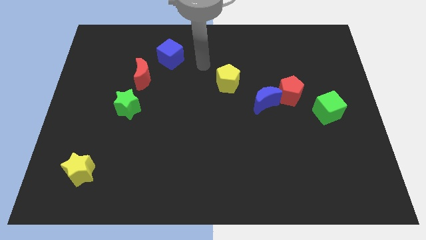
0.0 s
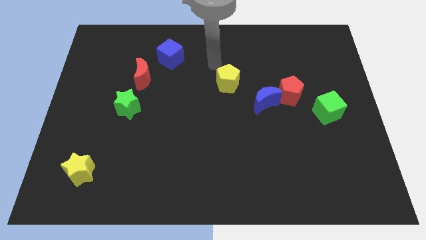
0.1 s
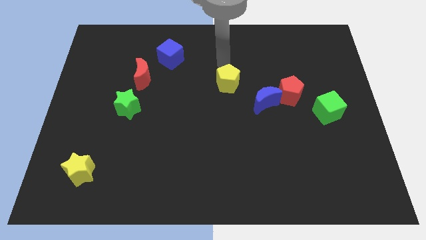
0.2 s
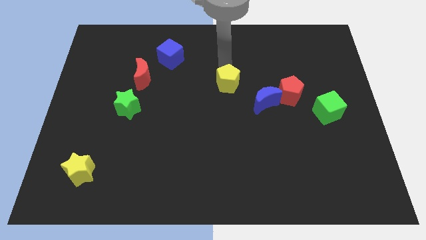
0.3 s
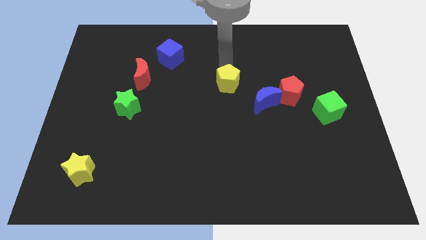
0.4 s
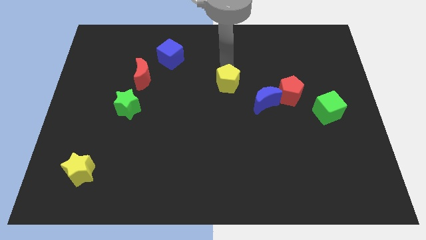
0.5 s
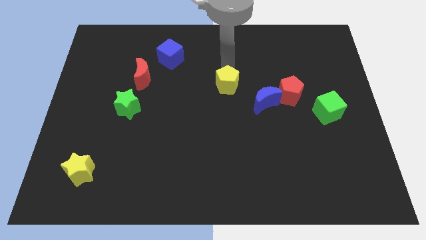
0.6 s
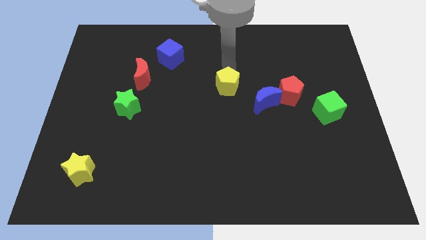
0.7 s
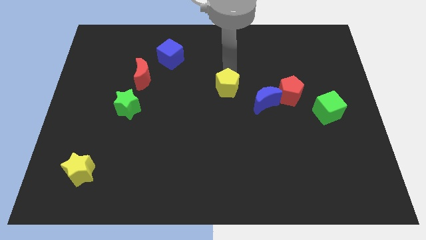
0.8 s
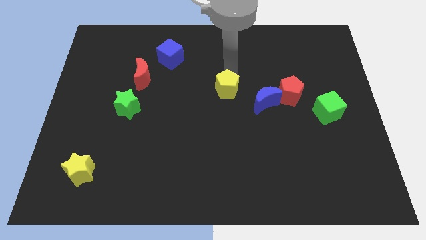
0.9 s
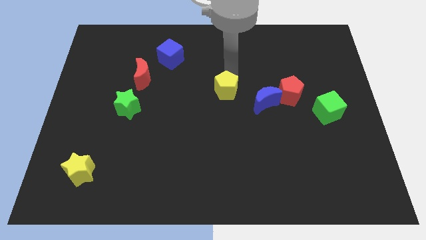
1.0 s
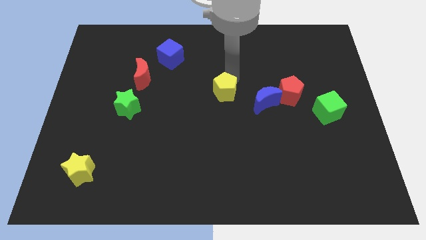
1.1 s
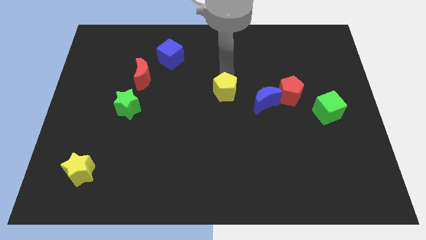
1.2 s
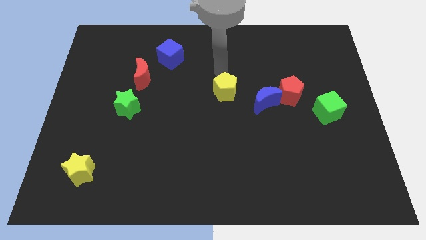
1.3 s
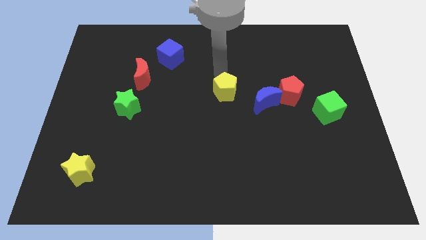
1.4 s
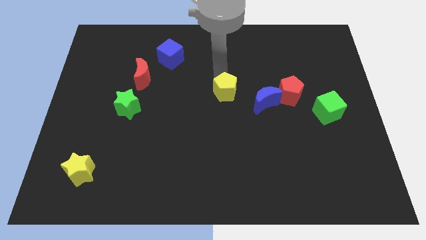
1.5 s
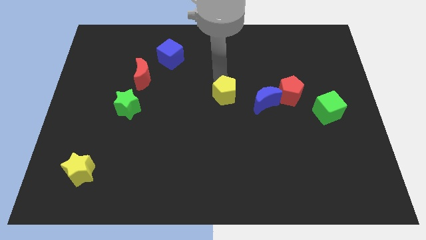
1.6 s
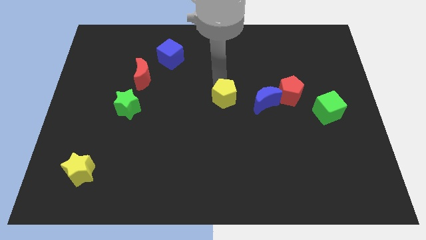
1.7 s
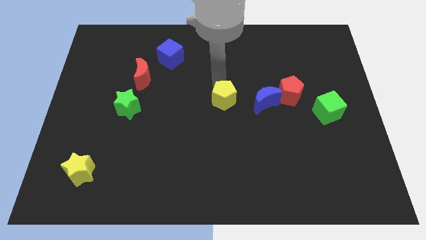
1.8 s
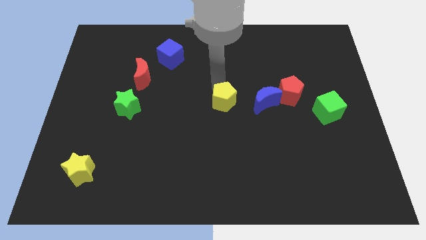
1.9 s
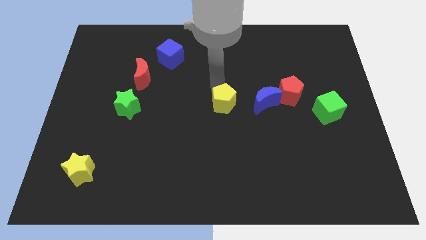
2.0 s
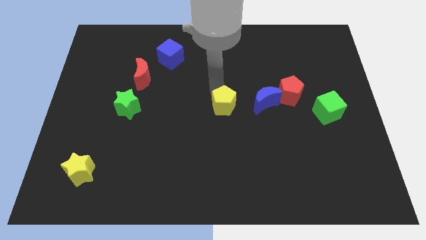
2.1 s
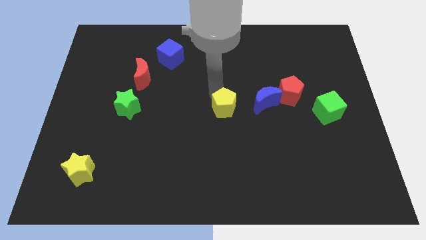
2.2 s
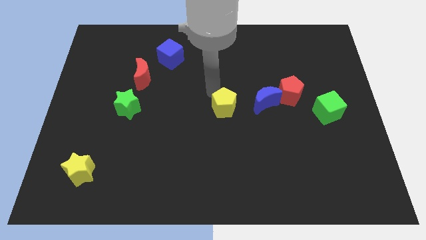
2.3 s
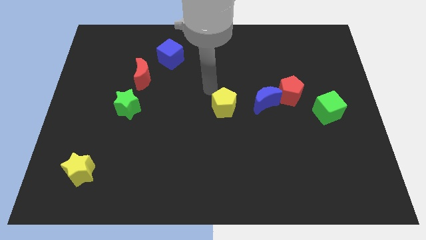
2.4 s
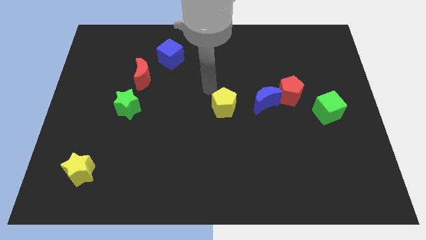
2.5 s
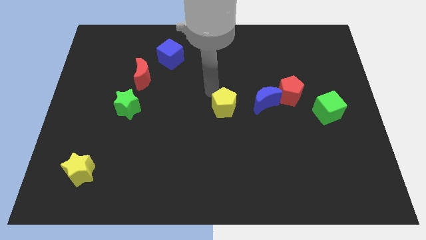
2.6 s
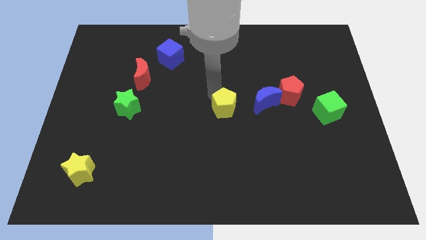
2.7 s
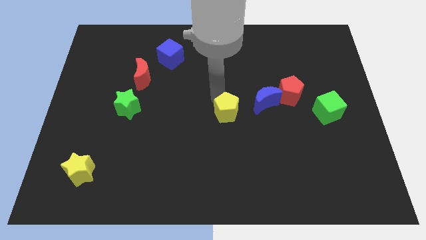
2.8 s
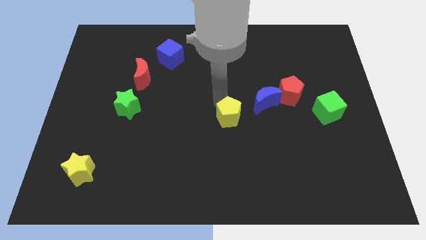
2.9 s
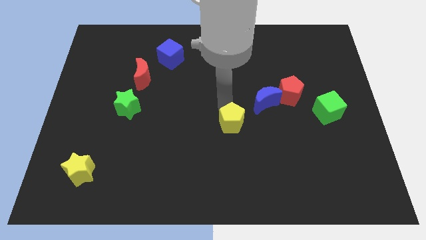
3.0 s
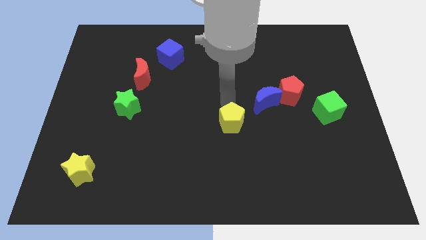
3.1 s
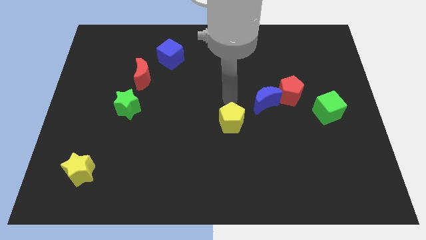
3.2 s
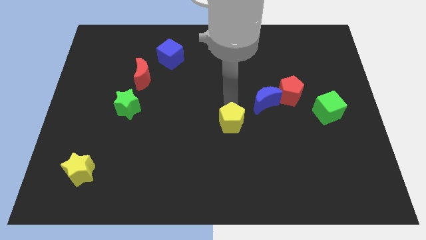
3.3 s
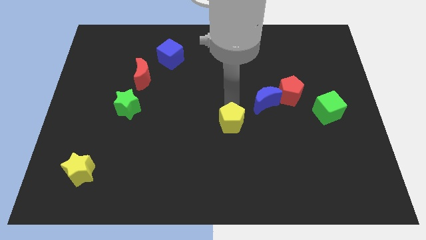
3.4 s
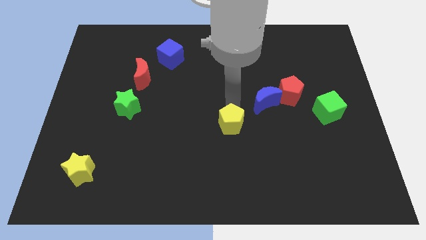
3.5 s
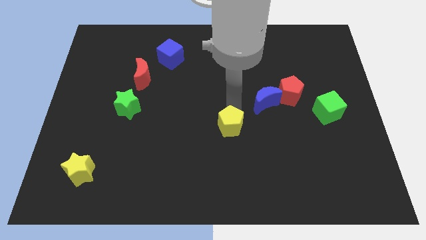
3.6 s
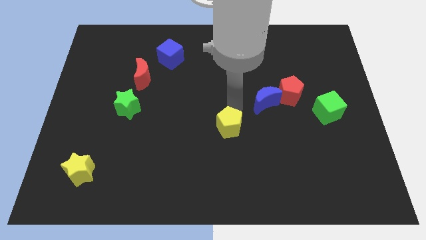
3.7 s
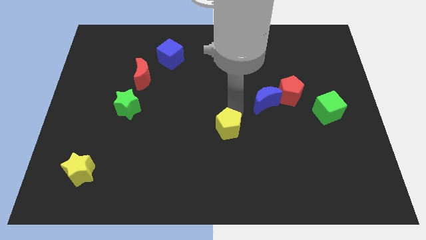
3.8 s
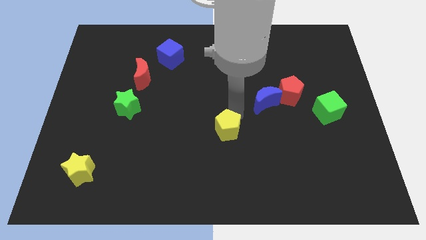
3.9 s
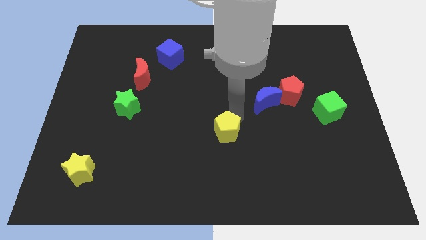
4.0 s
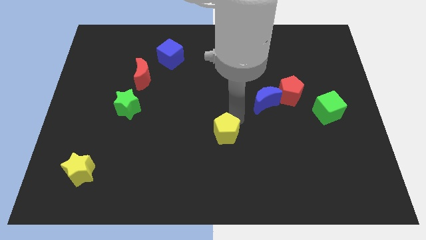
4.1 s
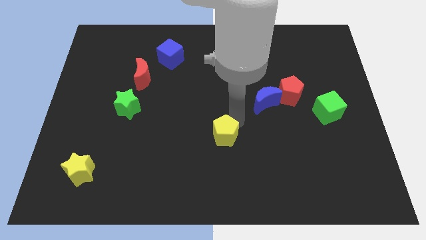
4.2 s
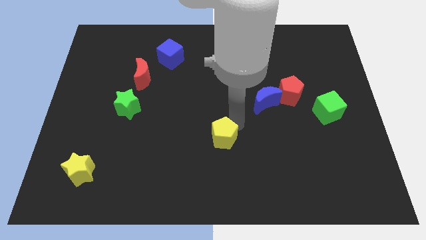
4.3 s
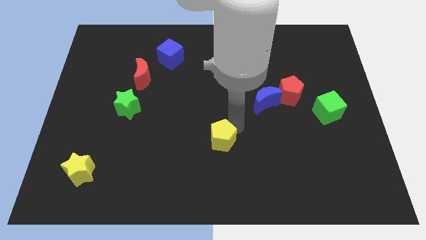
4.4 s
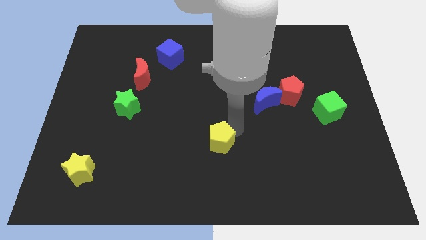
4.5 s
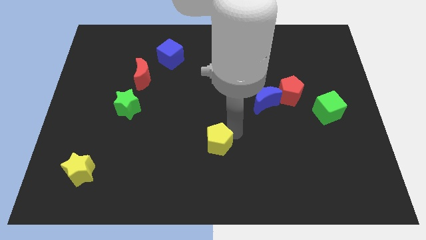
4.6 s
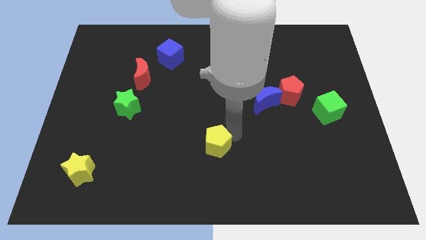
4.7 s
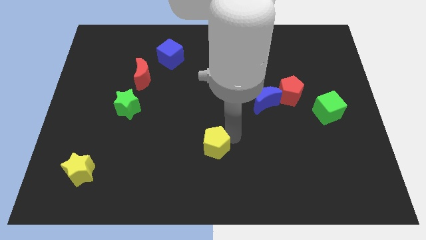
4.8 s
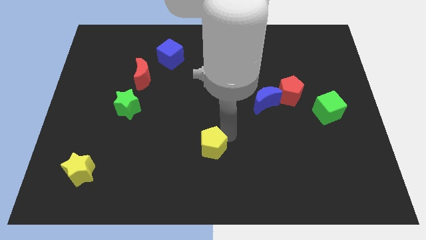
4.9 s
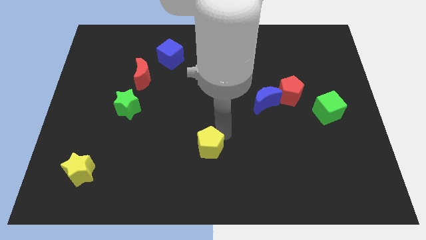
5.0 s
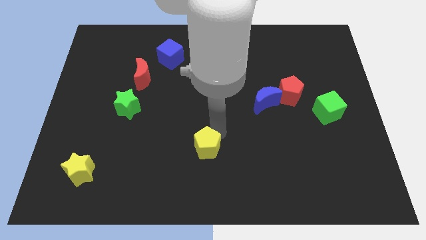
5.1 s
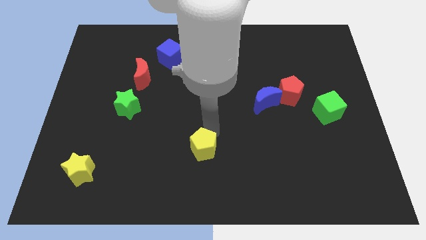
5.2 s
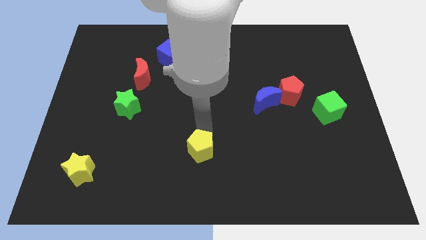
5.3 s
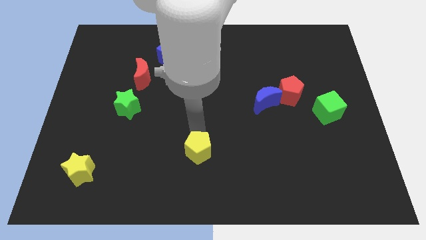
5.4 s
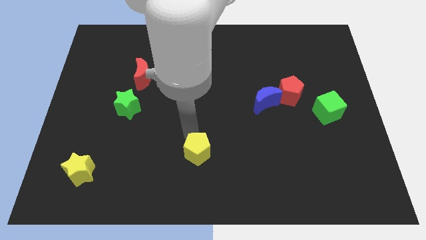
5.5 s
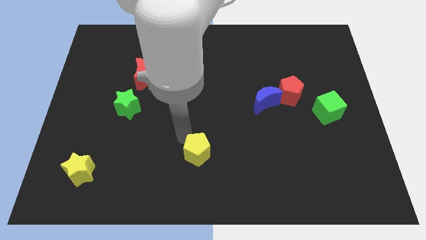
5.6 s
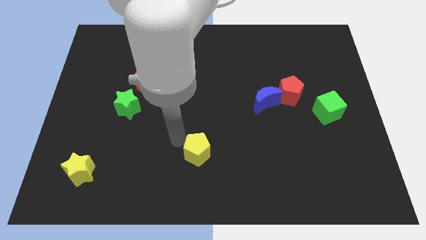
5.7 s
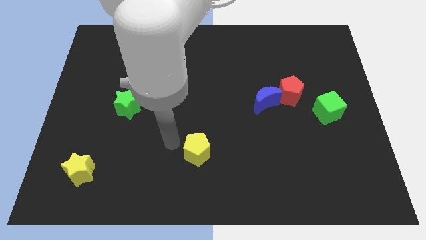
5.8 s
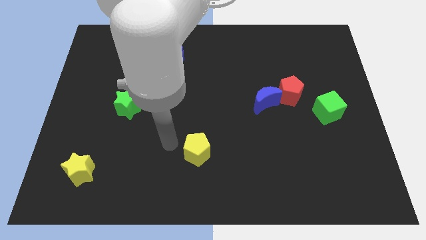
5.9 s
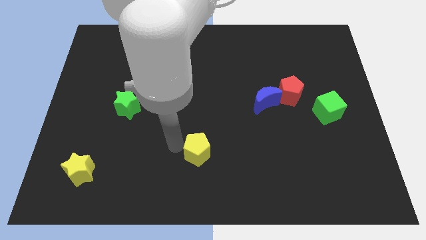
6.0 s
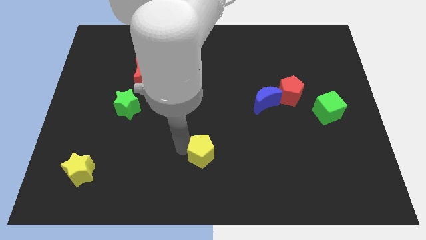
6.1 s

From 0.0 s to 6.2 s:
move the yellow pentagon to the bottom
